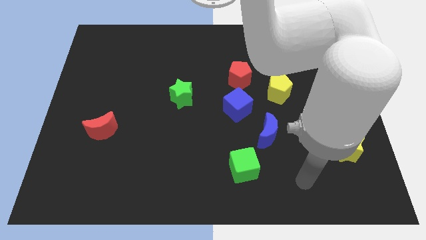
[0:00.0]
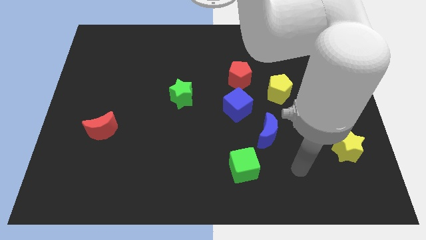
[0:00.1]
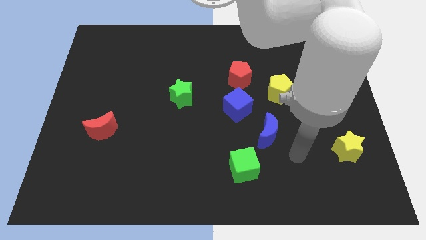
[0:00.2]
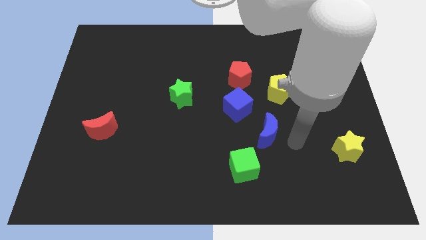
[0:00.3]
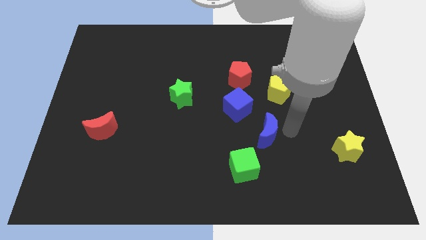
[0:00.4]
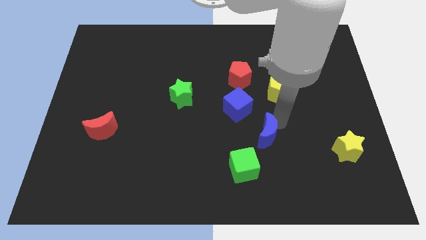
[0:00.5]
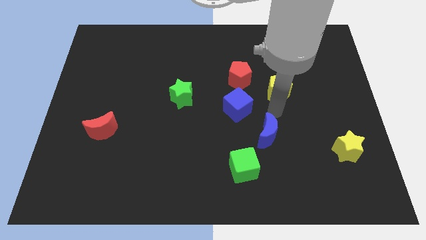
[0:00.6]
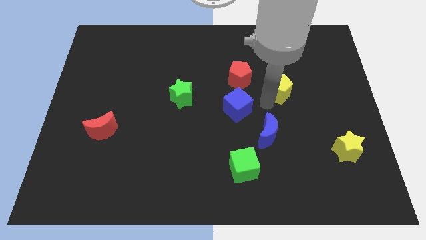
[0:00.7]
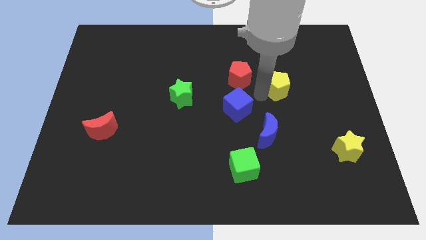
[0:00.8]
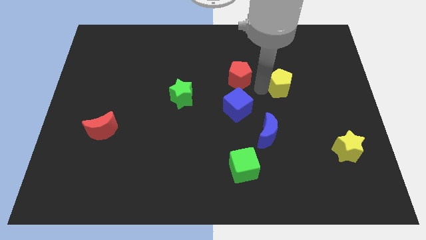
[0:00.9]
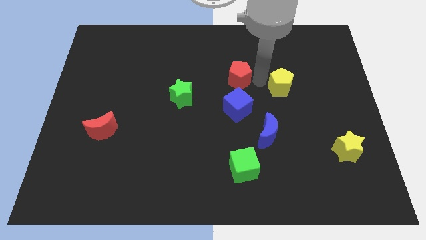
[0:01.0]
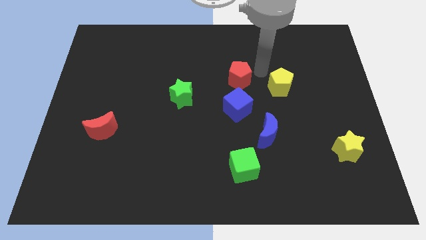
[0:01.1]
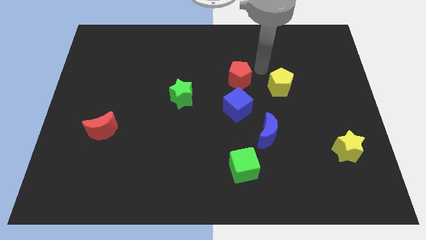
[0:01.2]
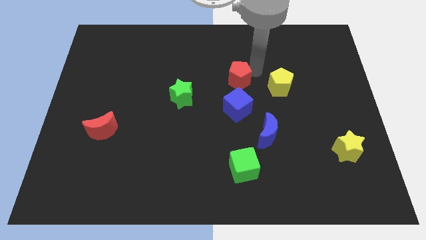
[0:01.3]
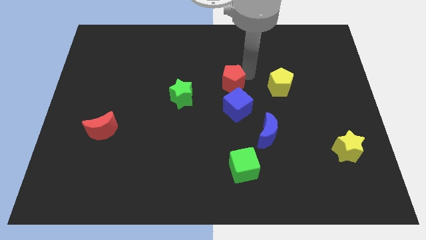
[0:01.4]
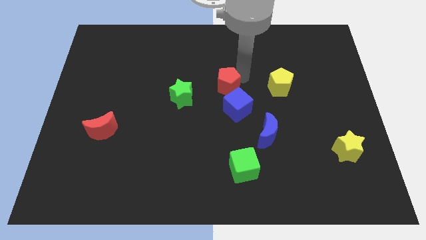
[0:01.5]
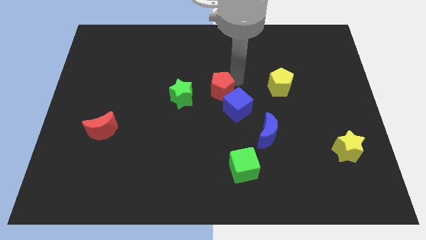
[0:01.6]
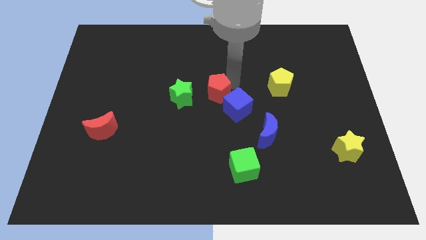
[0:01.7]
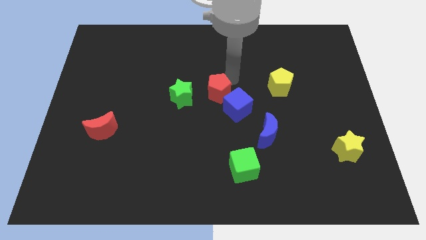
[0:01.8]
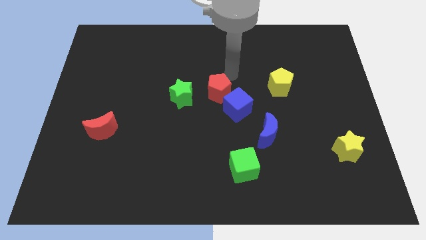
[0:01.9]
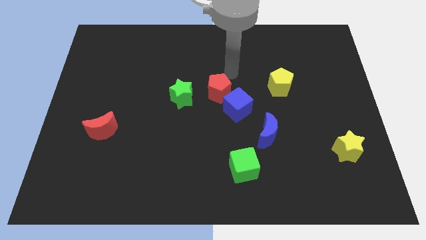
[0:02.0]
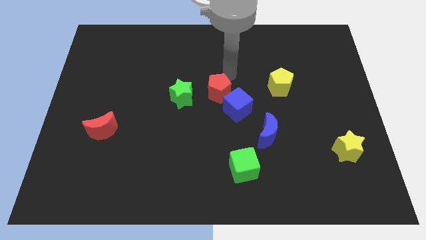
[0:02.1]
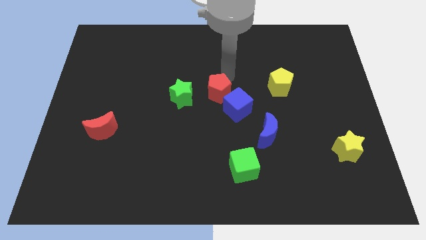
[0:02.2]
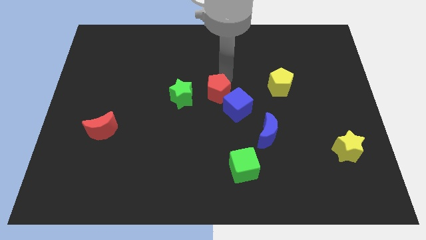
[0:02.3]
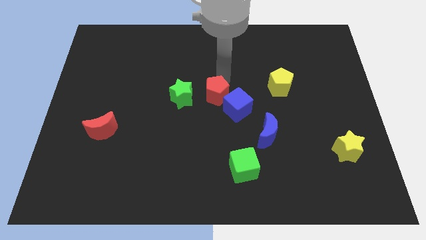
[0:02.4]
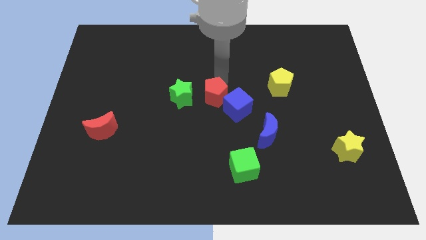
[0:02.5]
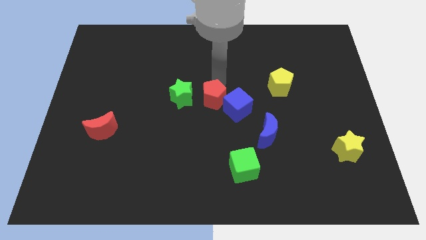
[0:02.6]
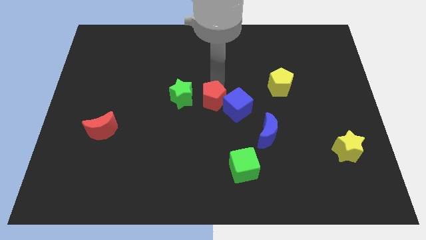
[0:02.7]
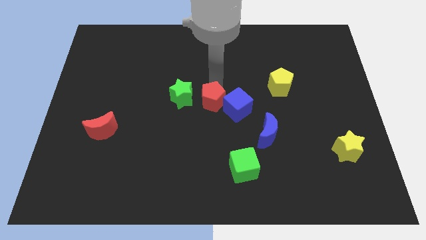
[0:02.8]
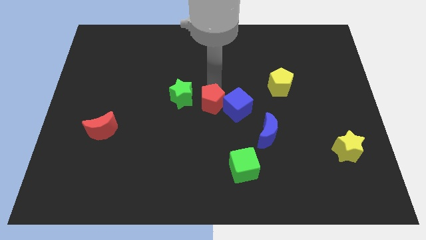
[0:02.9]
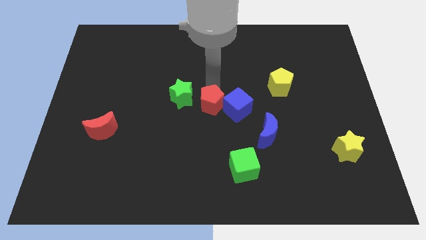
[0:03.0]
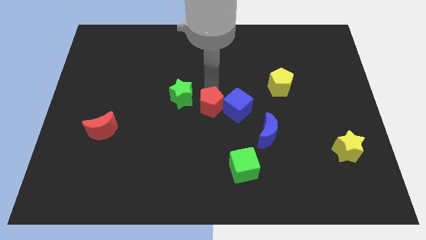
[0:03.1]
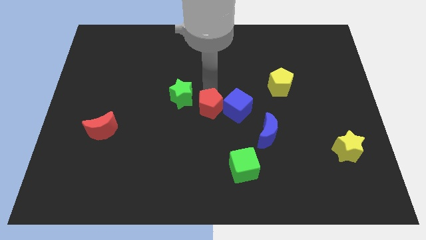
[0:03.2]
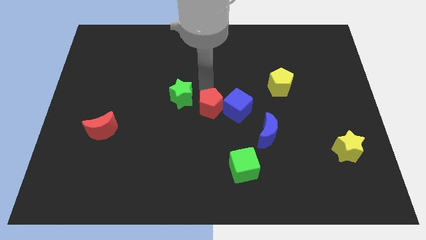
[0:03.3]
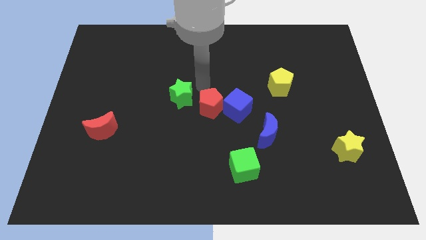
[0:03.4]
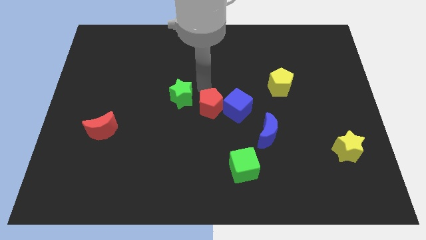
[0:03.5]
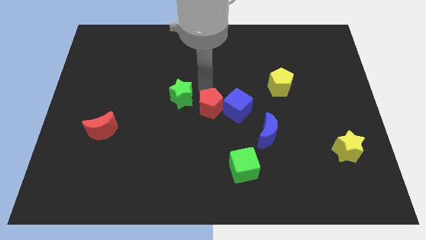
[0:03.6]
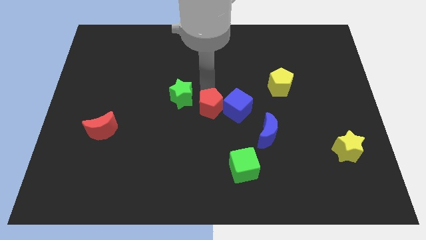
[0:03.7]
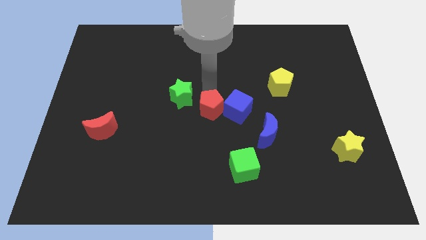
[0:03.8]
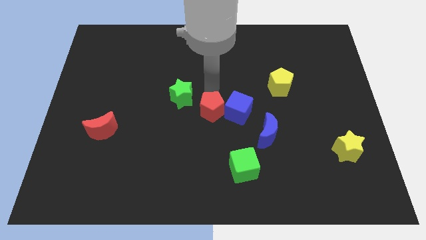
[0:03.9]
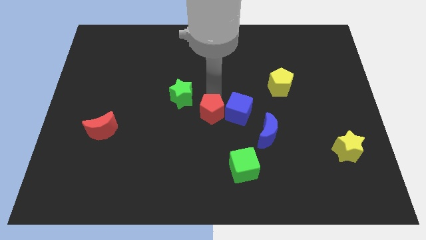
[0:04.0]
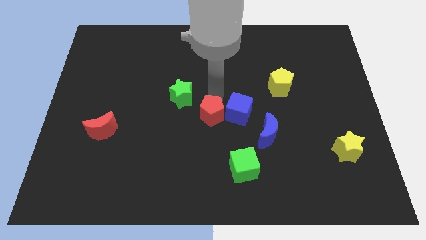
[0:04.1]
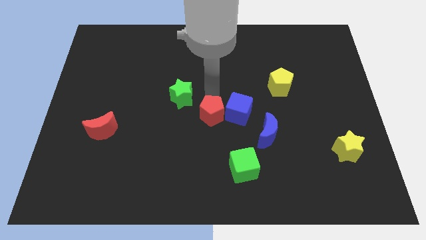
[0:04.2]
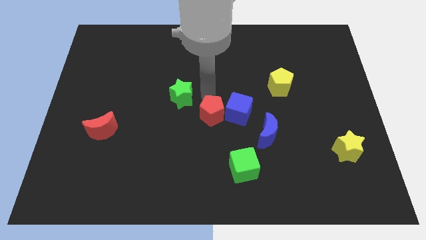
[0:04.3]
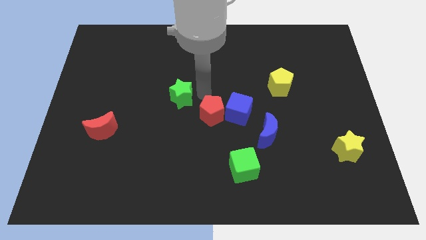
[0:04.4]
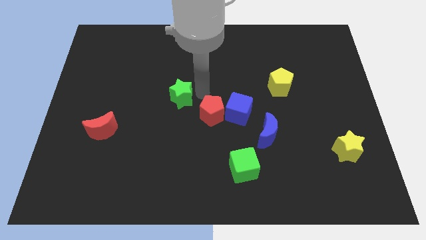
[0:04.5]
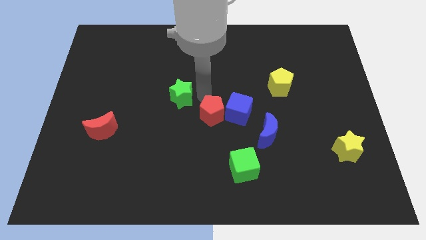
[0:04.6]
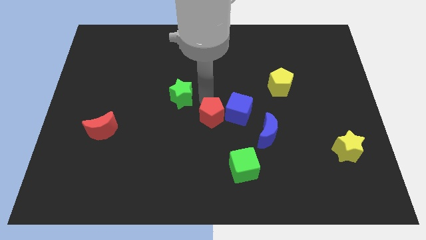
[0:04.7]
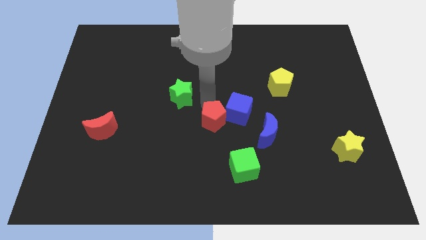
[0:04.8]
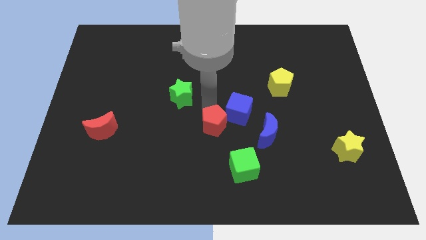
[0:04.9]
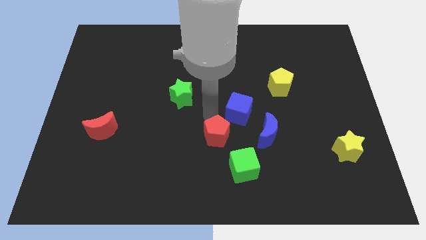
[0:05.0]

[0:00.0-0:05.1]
move the red pentagon to the bottom side of the blue cube

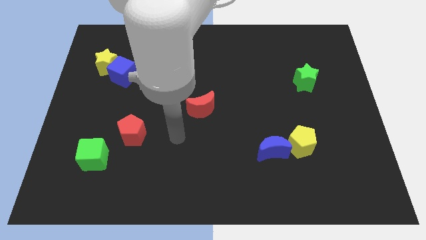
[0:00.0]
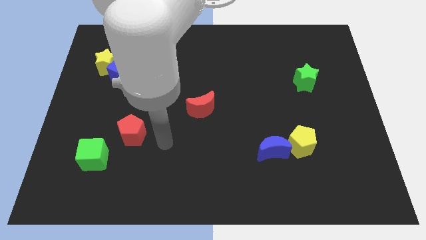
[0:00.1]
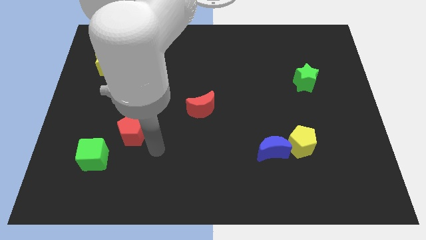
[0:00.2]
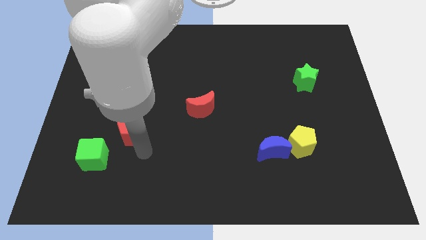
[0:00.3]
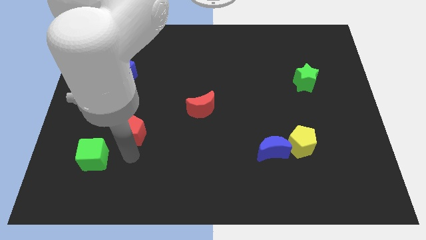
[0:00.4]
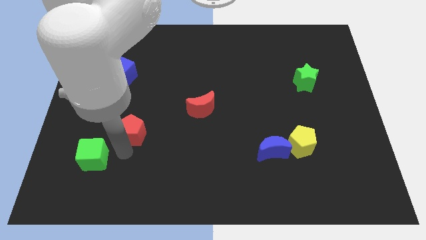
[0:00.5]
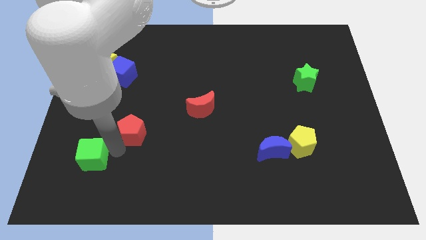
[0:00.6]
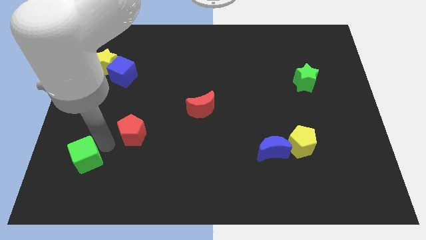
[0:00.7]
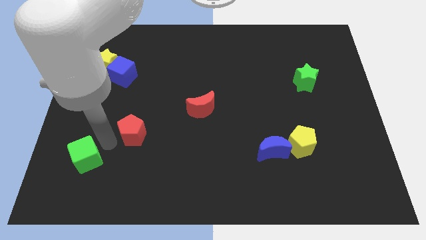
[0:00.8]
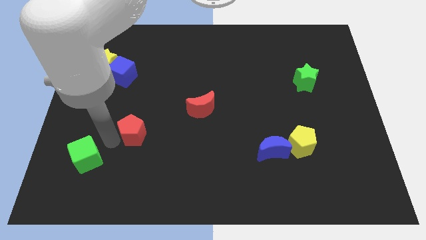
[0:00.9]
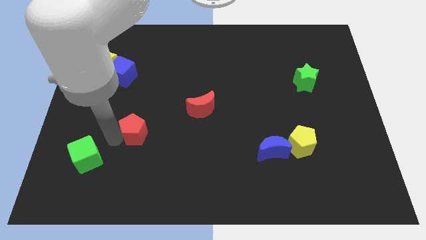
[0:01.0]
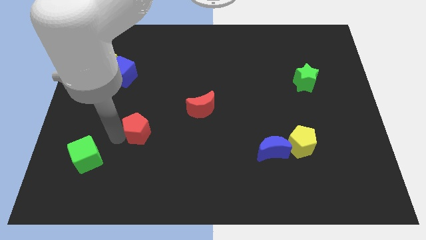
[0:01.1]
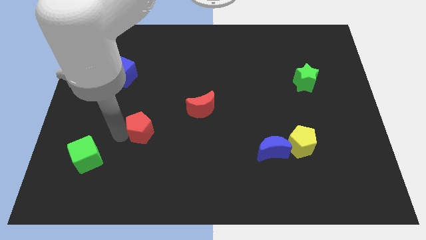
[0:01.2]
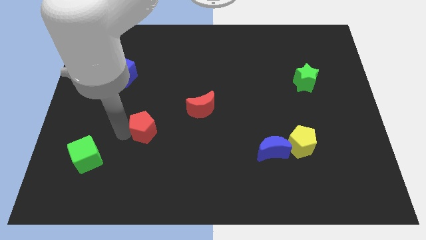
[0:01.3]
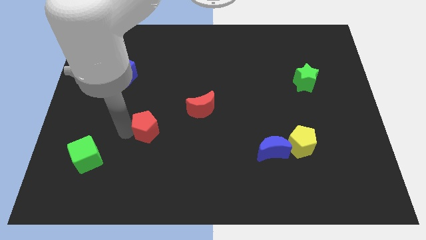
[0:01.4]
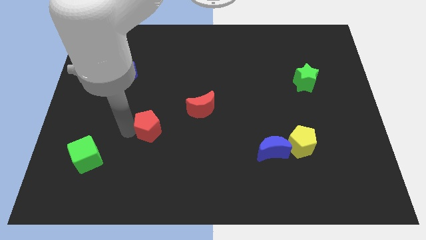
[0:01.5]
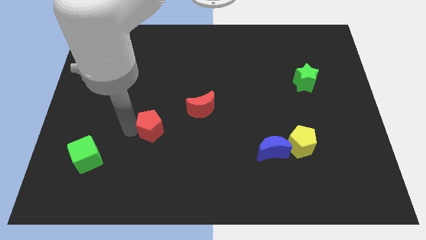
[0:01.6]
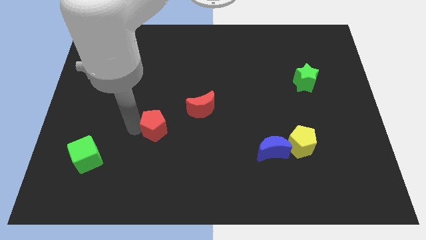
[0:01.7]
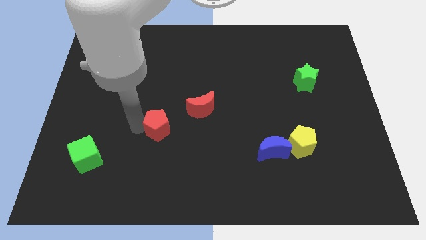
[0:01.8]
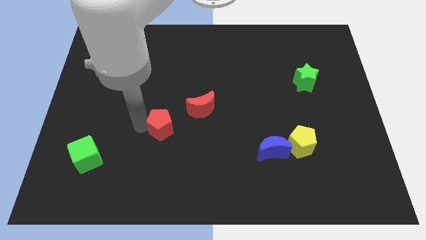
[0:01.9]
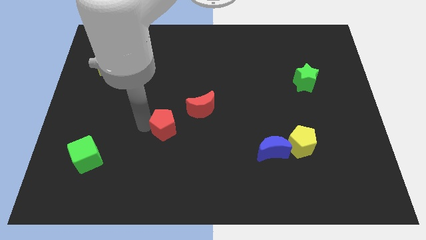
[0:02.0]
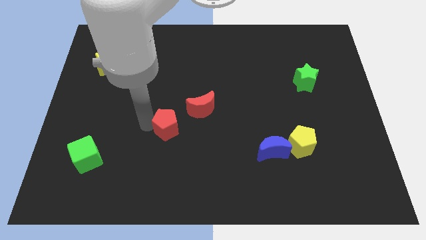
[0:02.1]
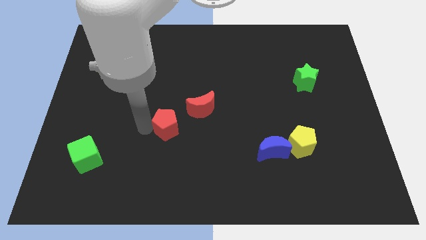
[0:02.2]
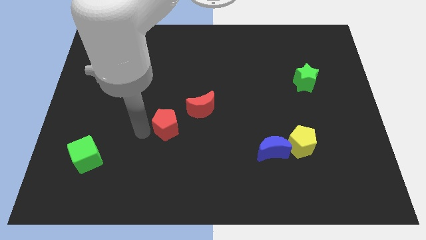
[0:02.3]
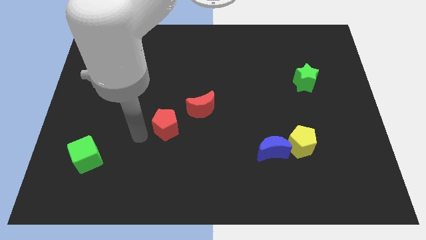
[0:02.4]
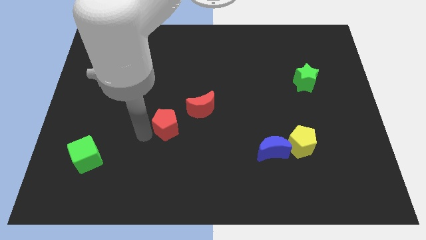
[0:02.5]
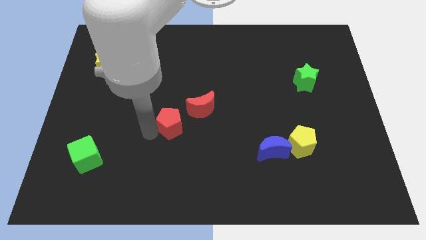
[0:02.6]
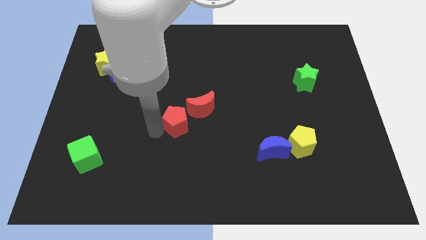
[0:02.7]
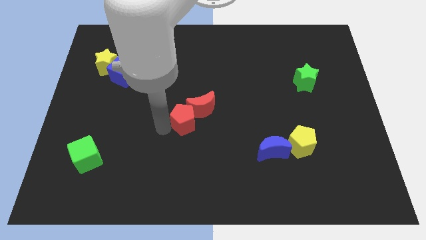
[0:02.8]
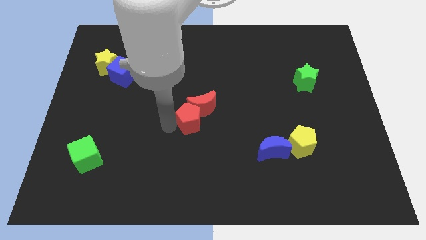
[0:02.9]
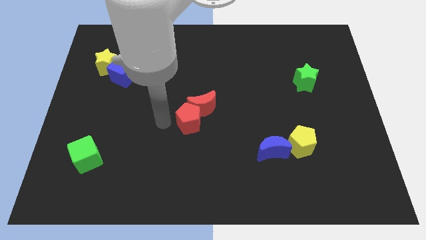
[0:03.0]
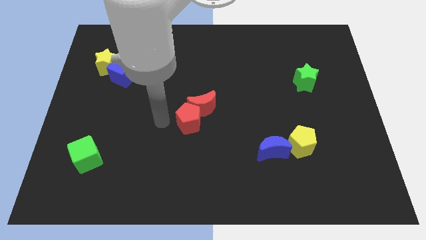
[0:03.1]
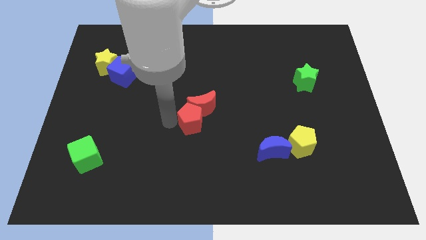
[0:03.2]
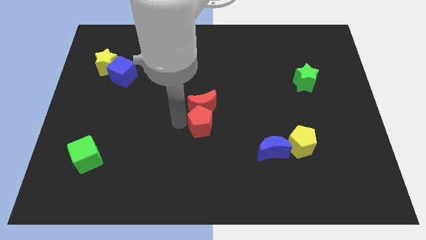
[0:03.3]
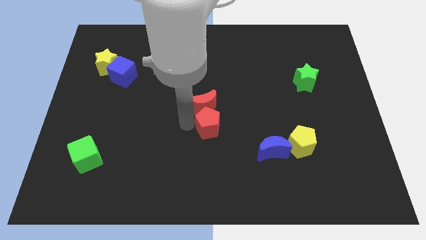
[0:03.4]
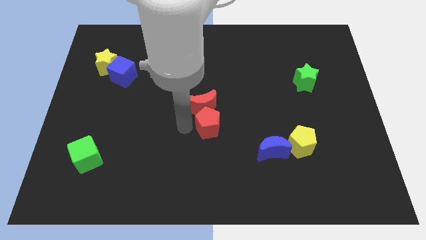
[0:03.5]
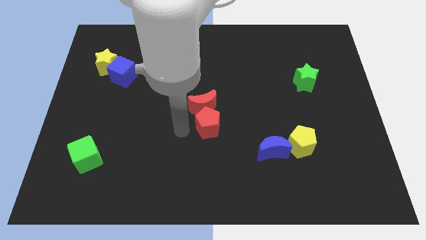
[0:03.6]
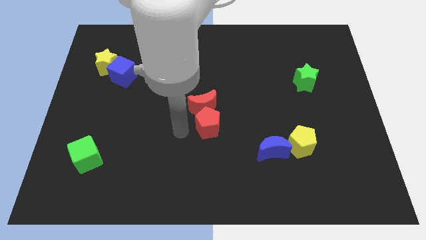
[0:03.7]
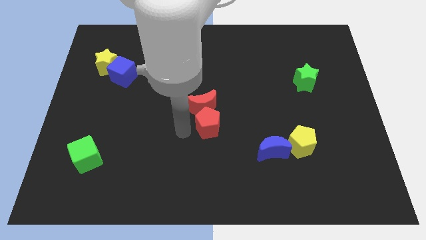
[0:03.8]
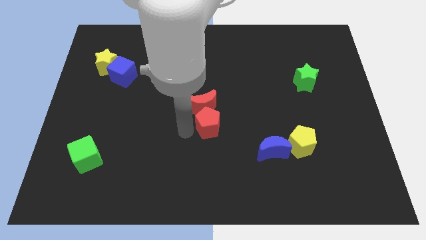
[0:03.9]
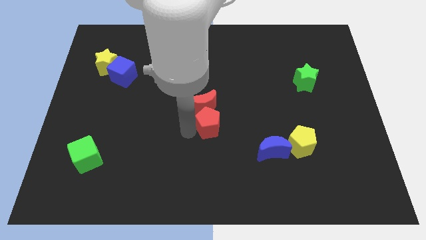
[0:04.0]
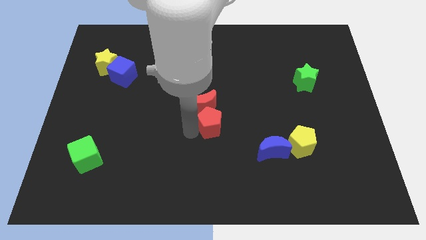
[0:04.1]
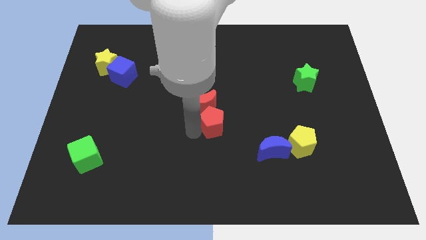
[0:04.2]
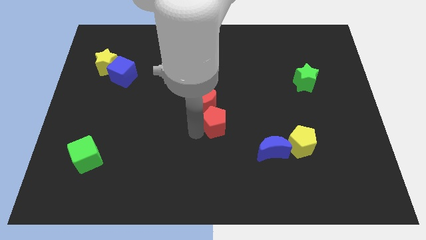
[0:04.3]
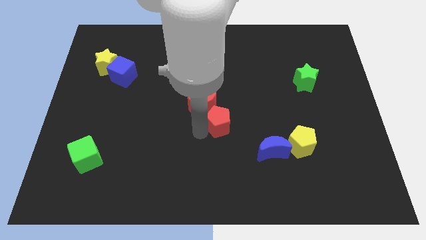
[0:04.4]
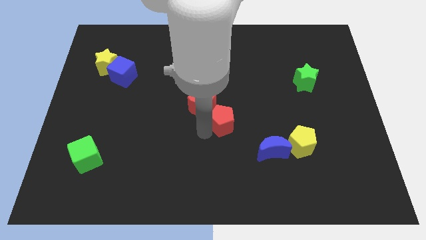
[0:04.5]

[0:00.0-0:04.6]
slide the red pentagon to the right of the red moon
